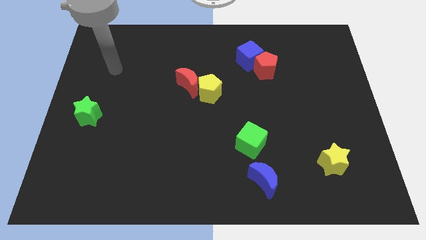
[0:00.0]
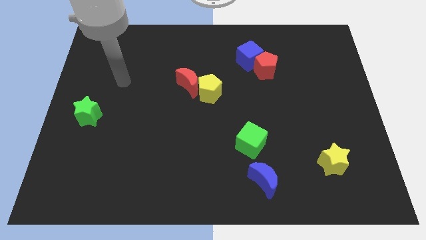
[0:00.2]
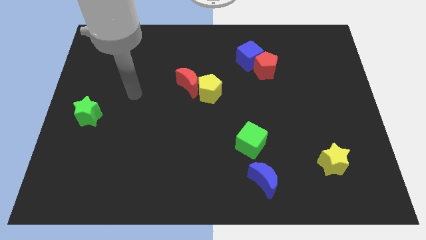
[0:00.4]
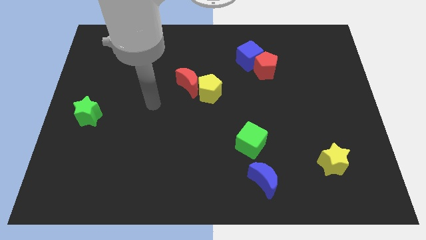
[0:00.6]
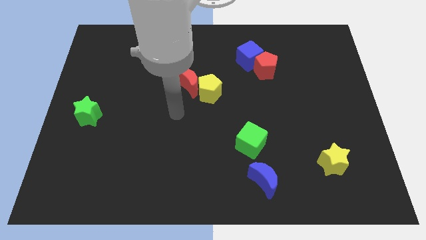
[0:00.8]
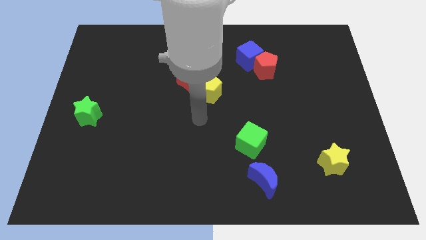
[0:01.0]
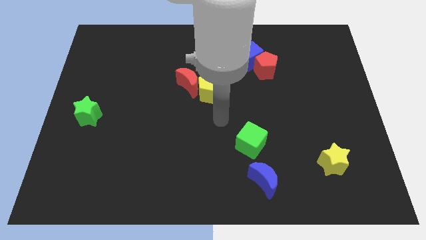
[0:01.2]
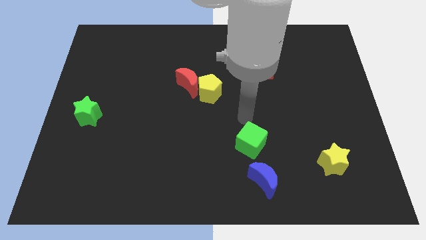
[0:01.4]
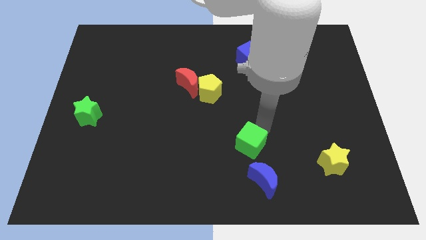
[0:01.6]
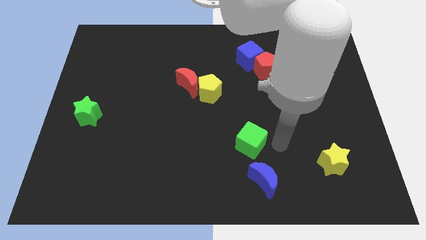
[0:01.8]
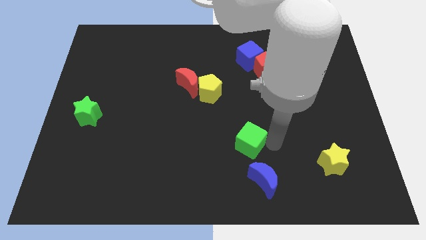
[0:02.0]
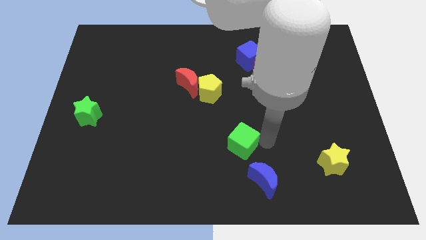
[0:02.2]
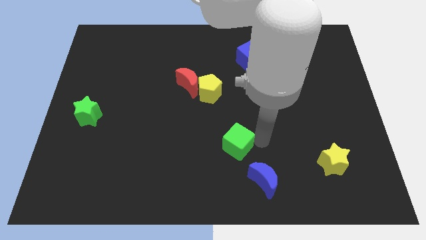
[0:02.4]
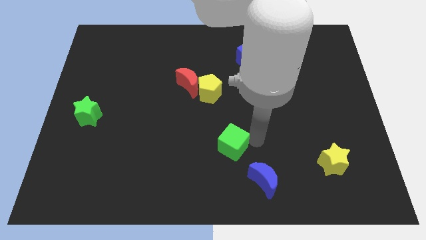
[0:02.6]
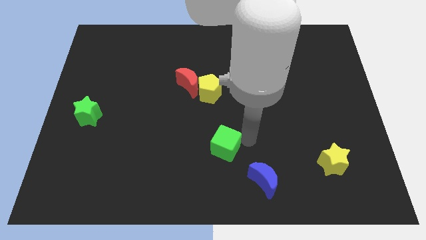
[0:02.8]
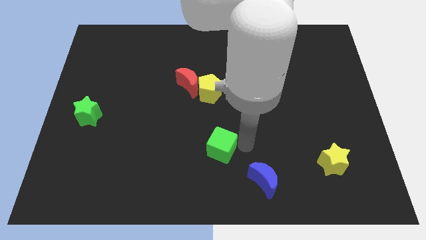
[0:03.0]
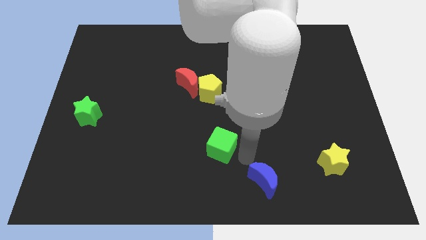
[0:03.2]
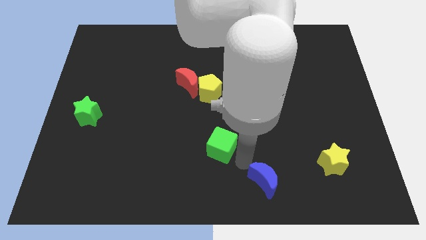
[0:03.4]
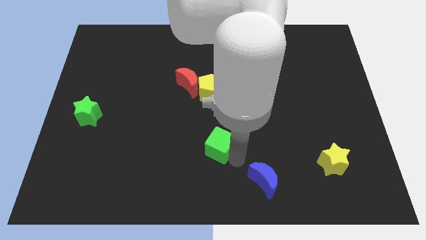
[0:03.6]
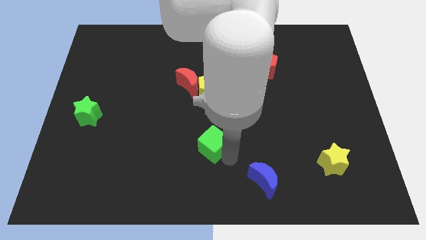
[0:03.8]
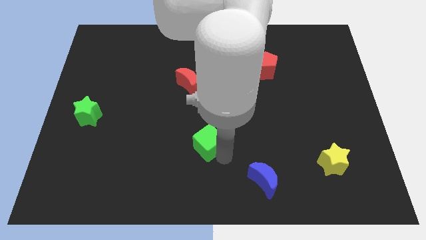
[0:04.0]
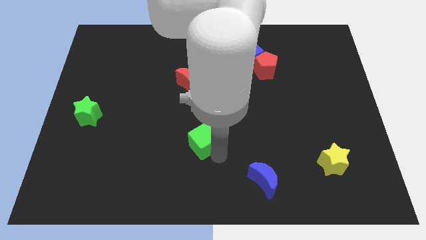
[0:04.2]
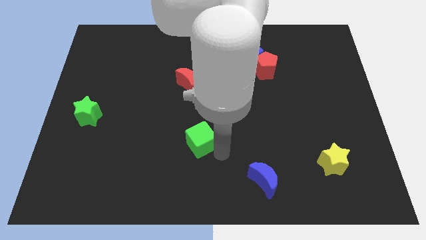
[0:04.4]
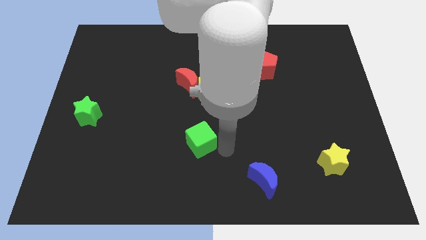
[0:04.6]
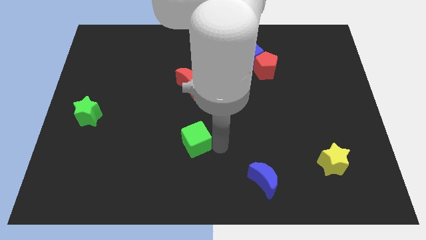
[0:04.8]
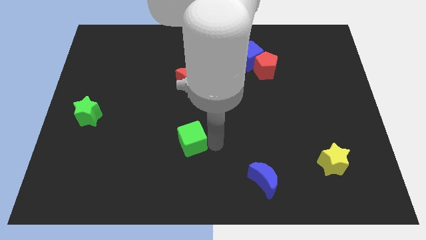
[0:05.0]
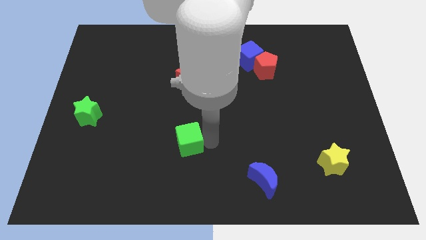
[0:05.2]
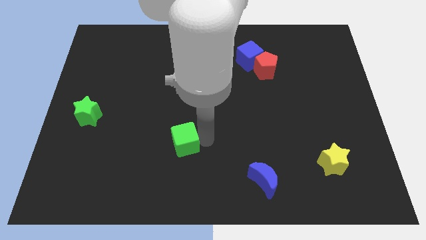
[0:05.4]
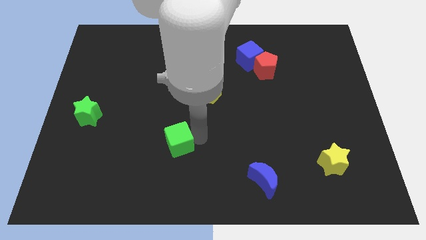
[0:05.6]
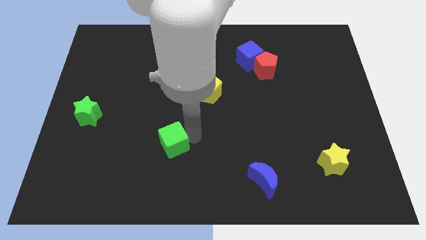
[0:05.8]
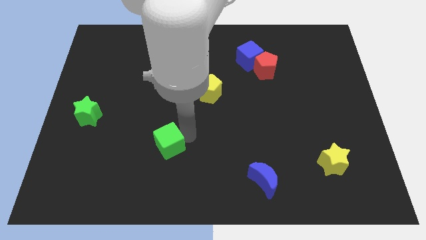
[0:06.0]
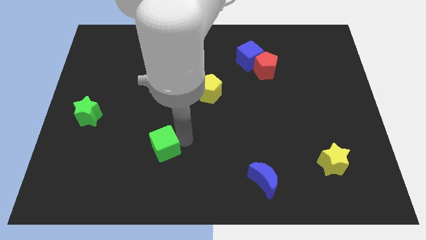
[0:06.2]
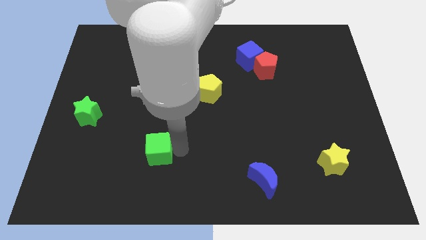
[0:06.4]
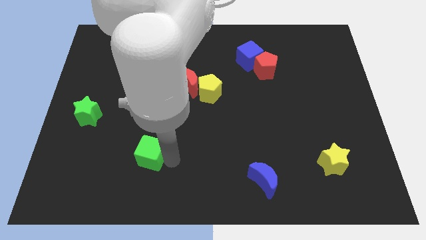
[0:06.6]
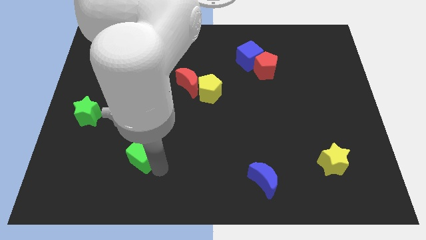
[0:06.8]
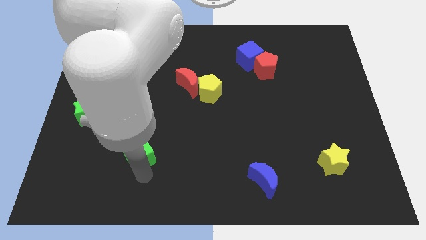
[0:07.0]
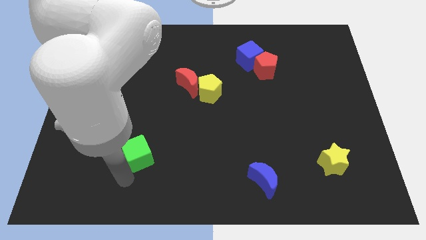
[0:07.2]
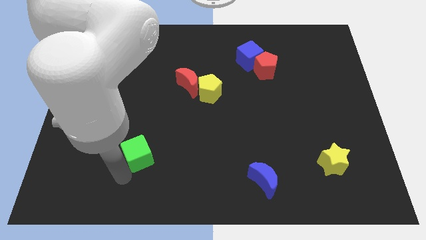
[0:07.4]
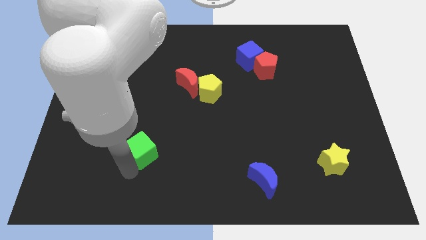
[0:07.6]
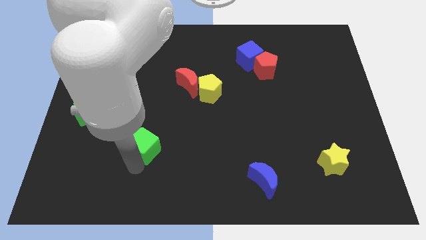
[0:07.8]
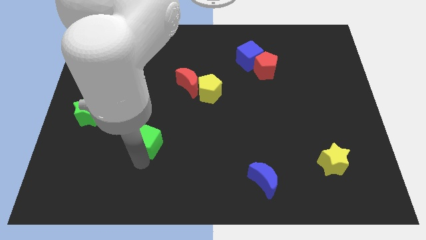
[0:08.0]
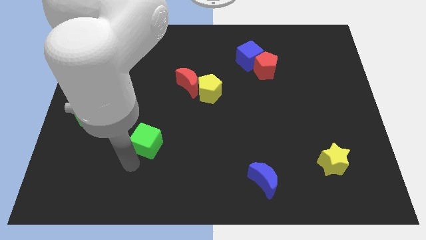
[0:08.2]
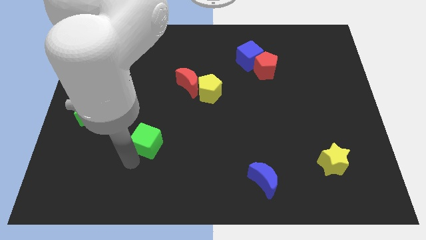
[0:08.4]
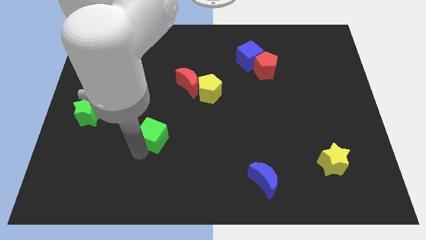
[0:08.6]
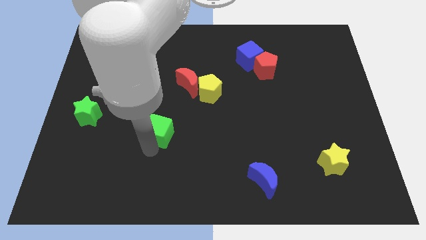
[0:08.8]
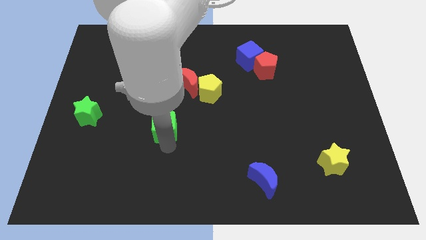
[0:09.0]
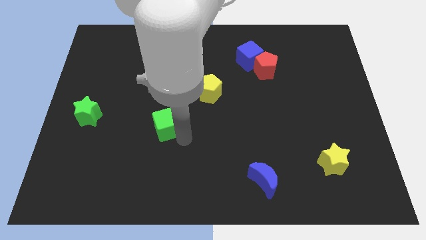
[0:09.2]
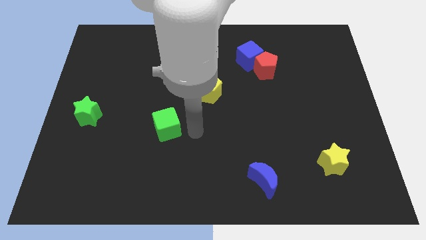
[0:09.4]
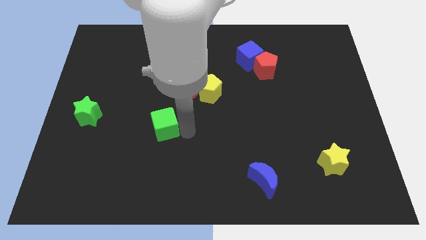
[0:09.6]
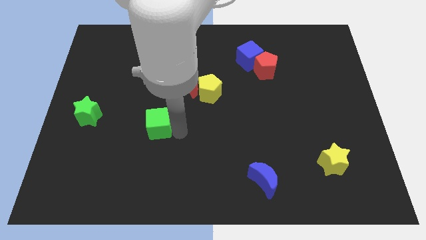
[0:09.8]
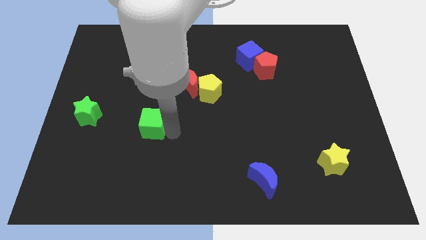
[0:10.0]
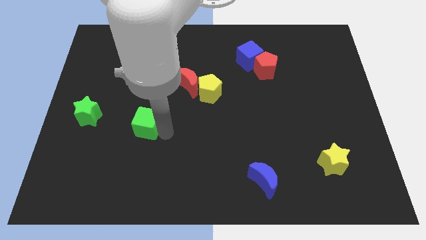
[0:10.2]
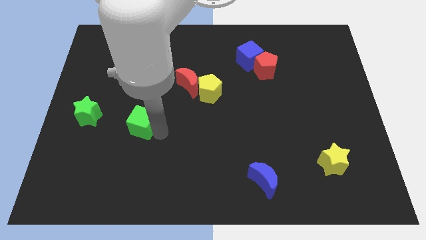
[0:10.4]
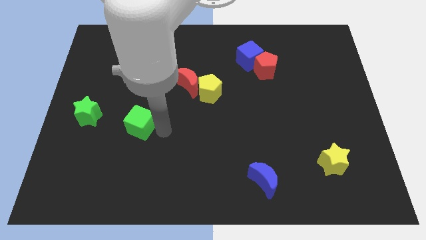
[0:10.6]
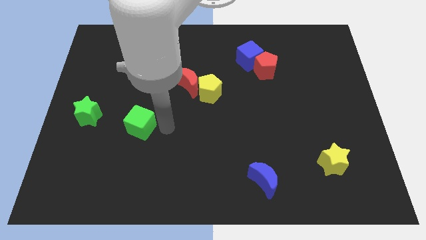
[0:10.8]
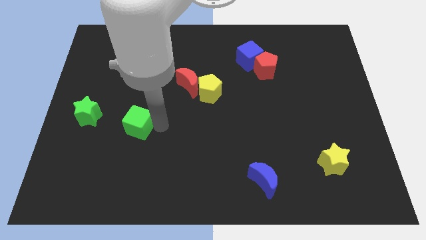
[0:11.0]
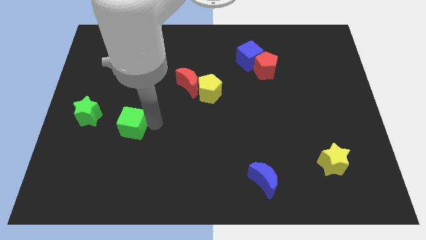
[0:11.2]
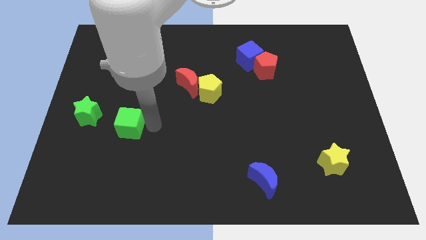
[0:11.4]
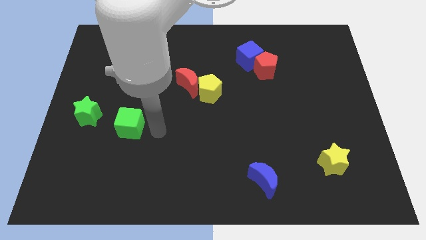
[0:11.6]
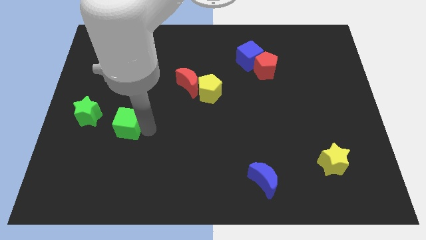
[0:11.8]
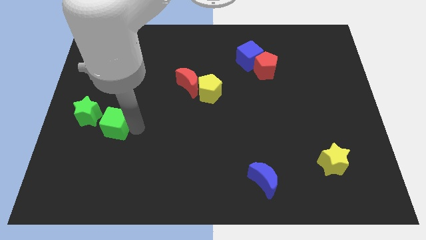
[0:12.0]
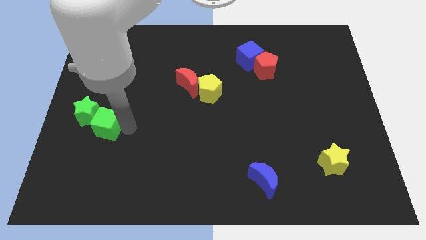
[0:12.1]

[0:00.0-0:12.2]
move the green cube towards the green star
